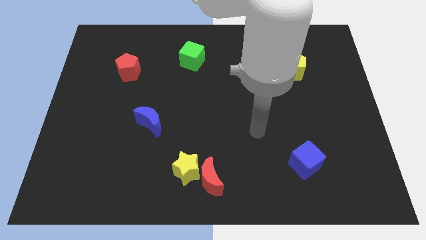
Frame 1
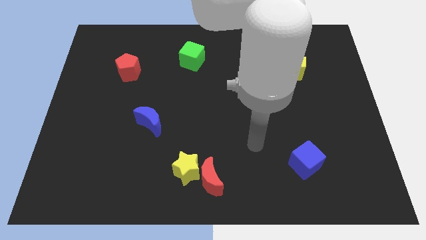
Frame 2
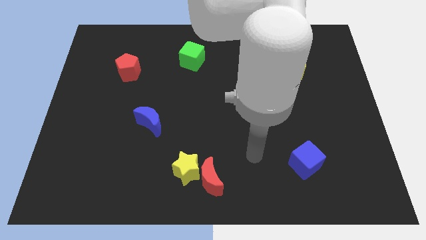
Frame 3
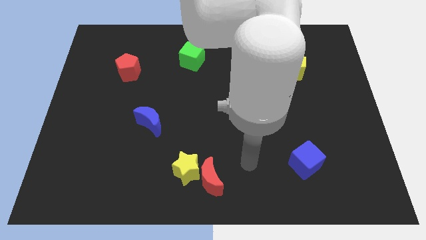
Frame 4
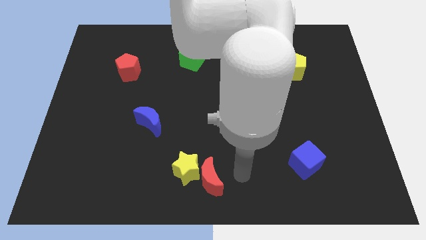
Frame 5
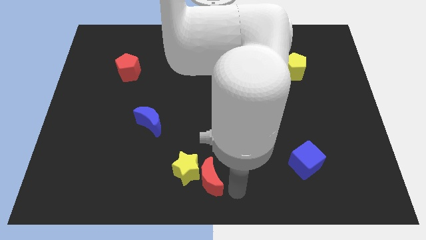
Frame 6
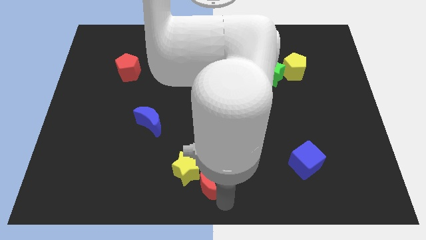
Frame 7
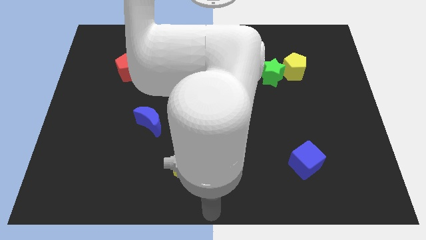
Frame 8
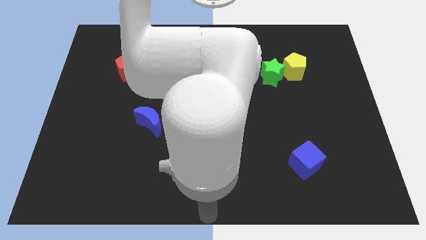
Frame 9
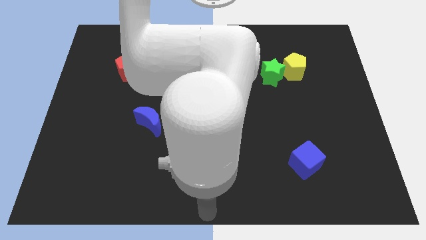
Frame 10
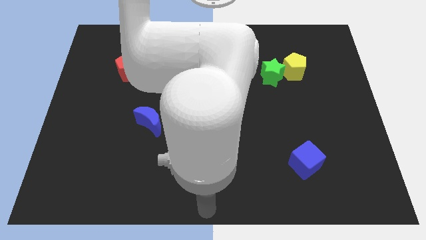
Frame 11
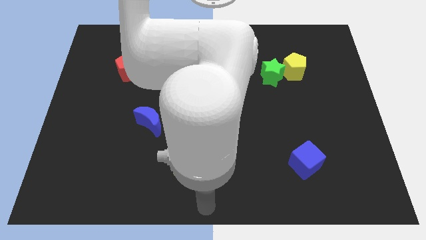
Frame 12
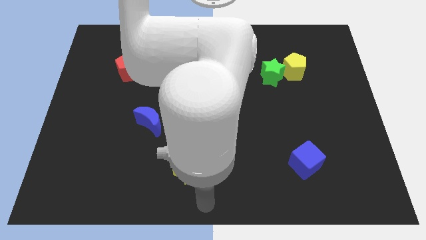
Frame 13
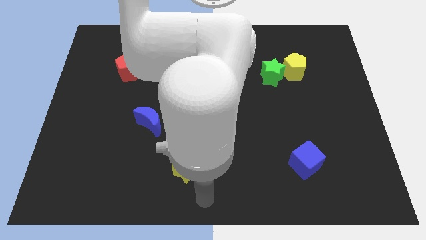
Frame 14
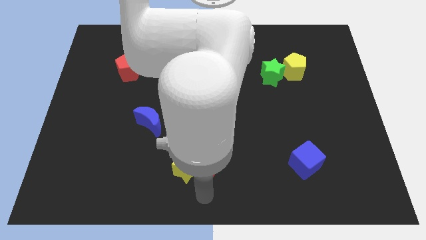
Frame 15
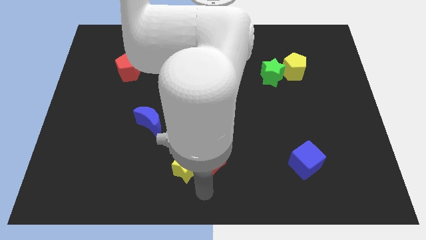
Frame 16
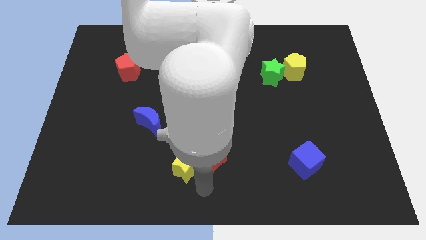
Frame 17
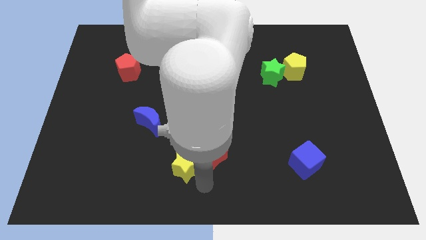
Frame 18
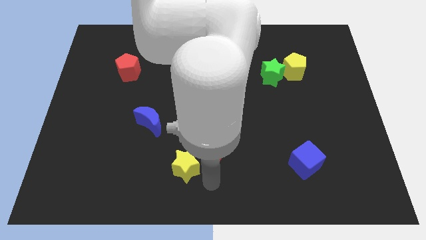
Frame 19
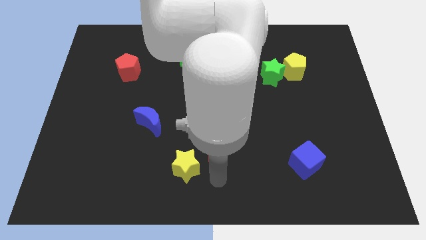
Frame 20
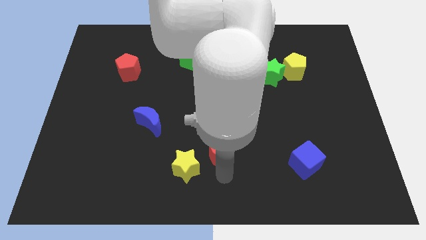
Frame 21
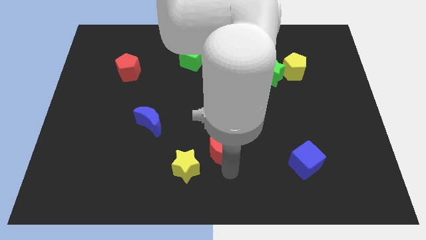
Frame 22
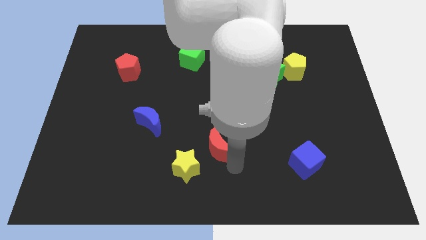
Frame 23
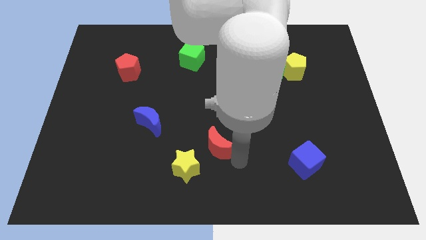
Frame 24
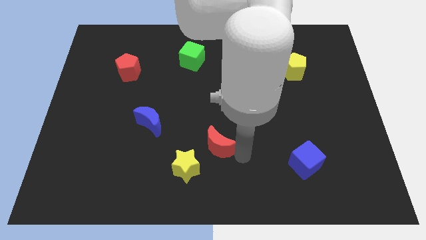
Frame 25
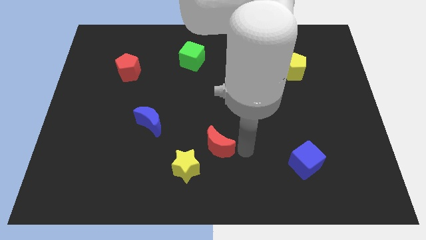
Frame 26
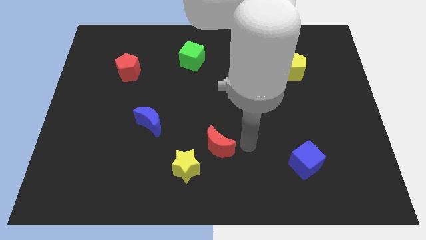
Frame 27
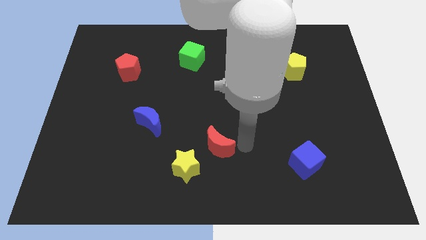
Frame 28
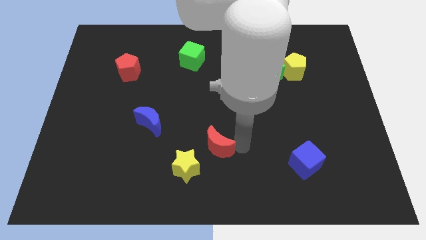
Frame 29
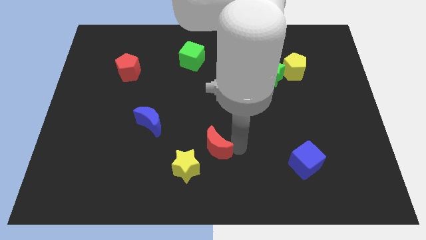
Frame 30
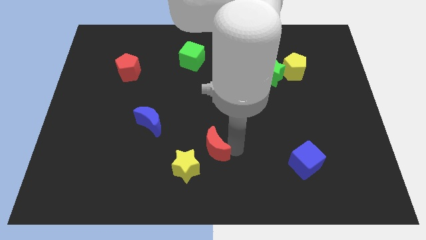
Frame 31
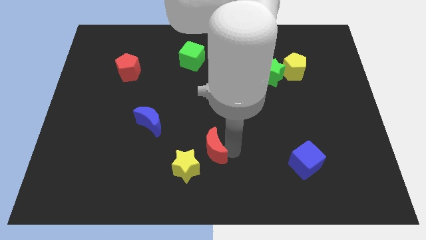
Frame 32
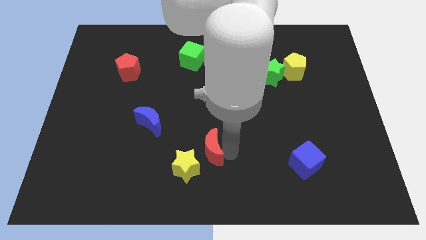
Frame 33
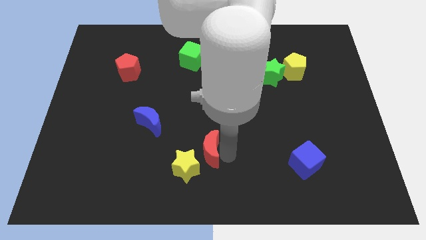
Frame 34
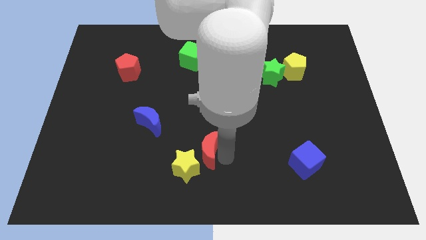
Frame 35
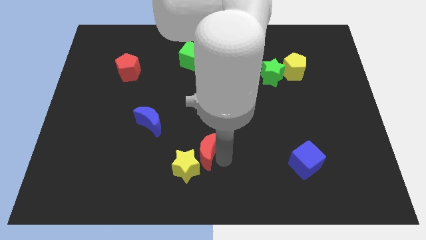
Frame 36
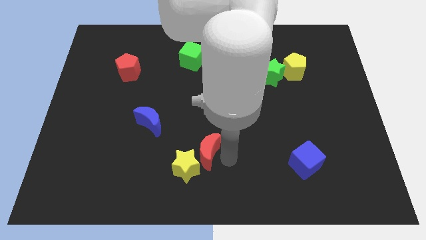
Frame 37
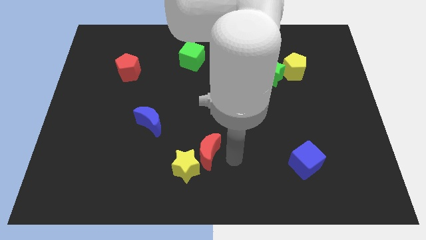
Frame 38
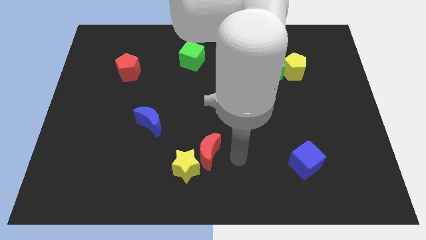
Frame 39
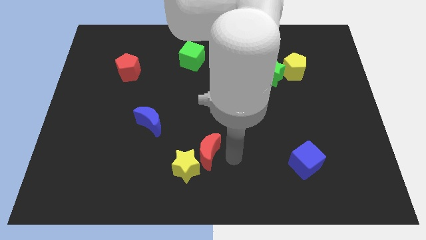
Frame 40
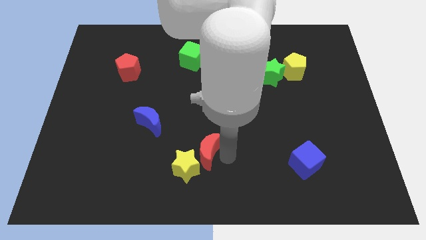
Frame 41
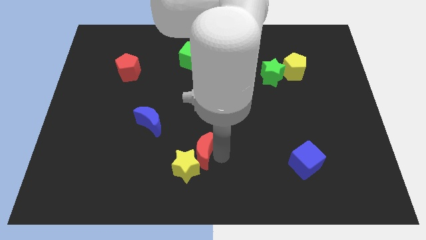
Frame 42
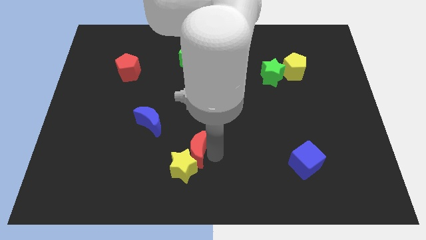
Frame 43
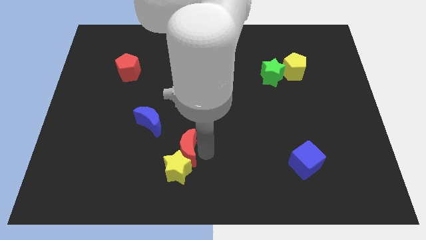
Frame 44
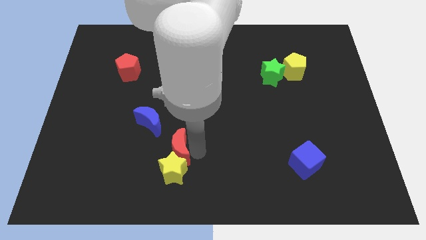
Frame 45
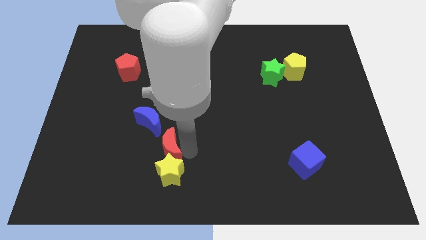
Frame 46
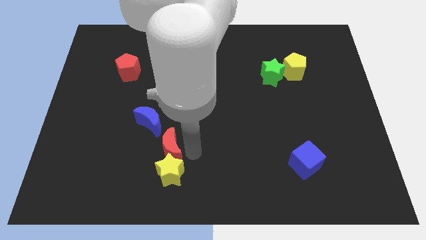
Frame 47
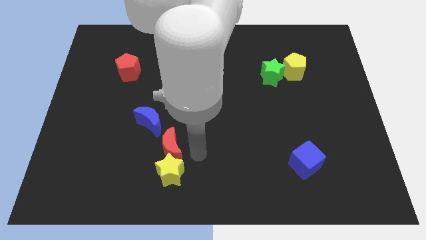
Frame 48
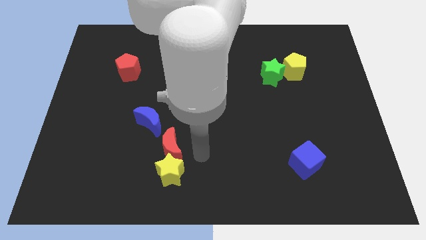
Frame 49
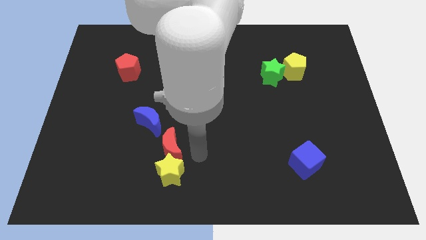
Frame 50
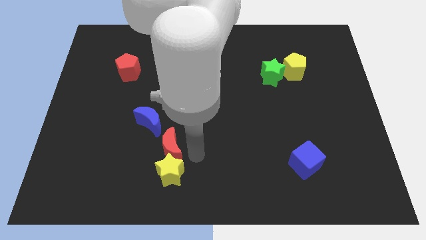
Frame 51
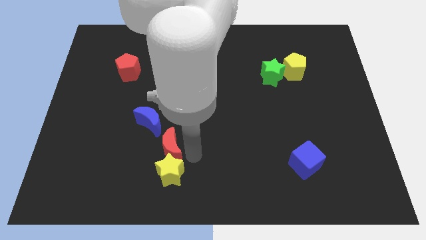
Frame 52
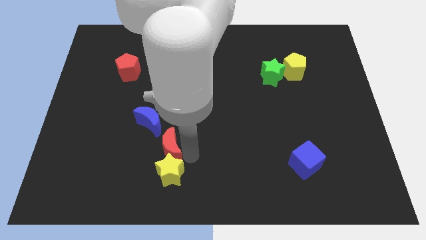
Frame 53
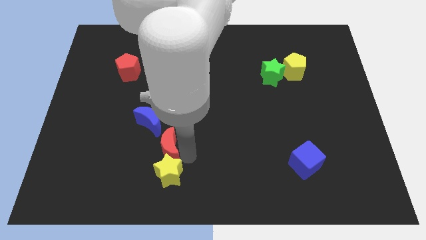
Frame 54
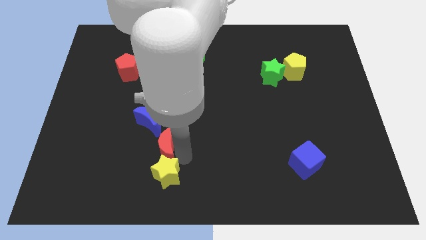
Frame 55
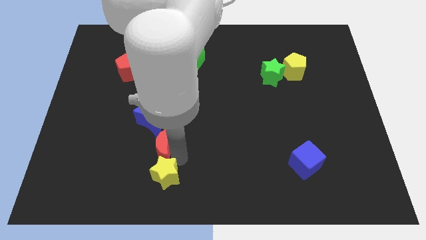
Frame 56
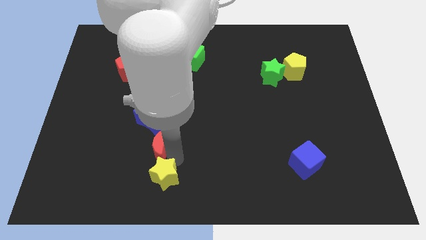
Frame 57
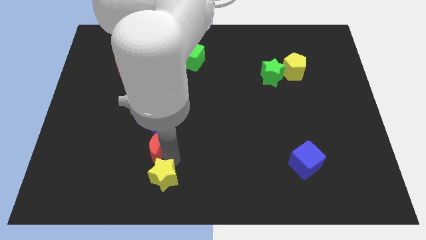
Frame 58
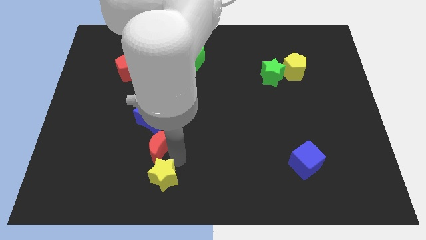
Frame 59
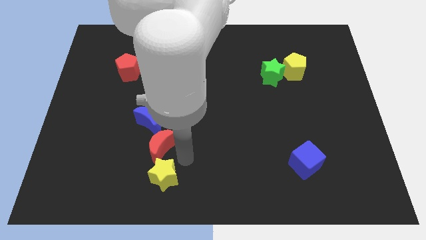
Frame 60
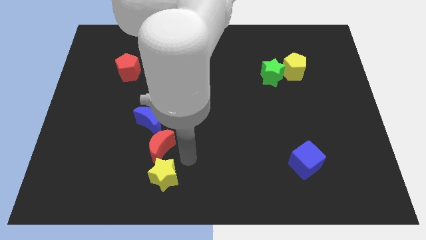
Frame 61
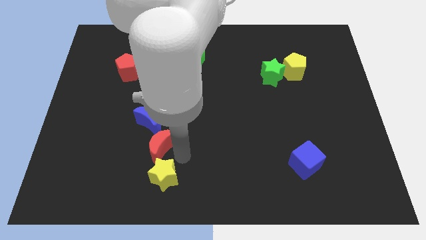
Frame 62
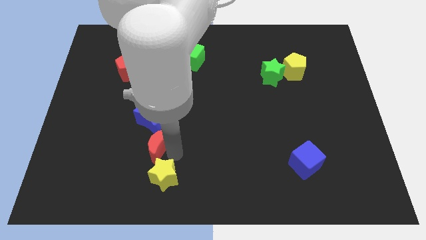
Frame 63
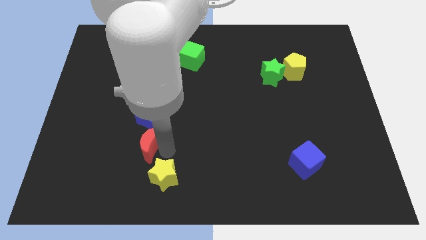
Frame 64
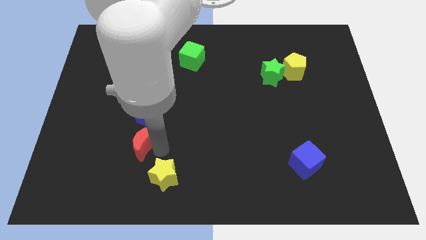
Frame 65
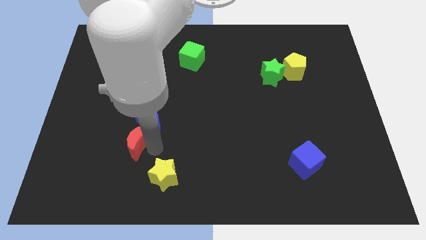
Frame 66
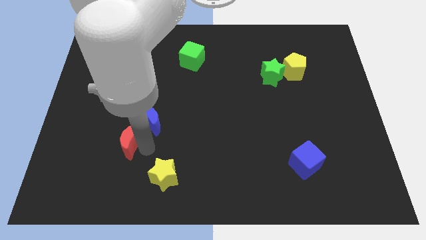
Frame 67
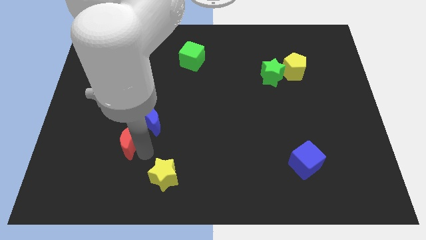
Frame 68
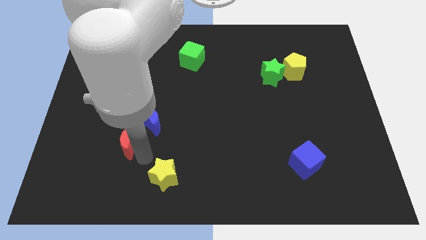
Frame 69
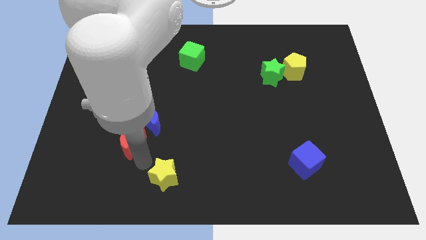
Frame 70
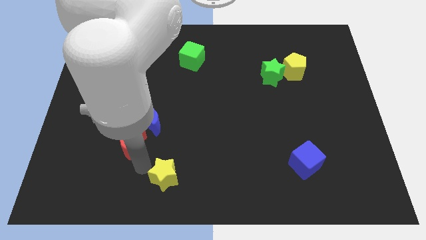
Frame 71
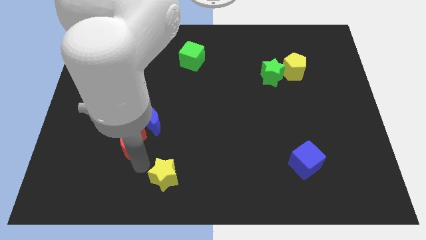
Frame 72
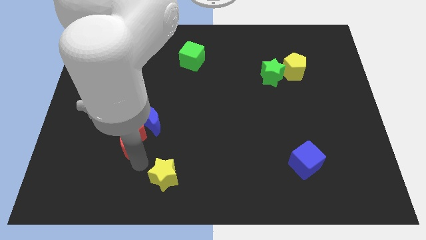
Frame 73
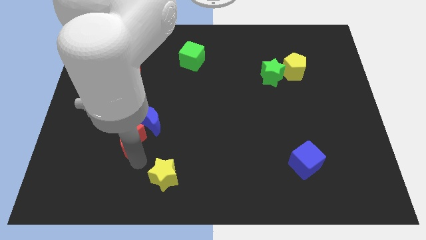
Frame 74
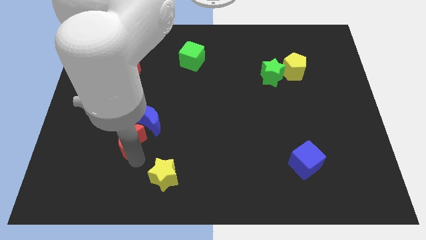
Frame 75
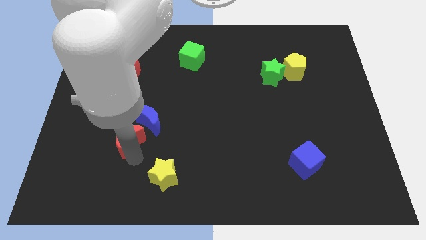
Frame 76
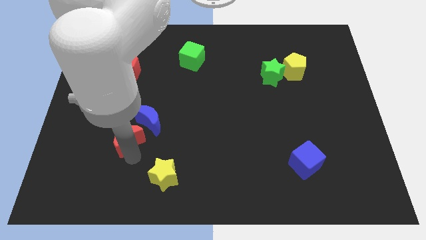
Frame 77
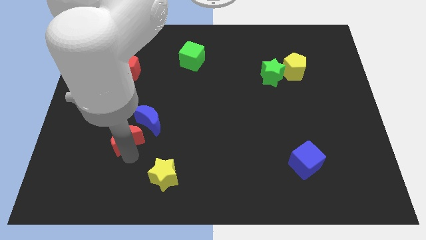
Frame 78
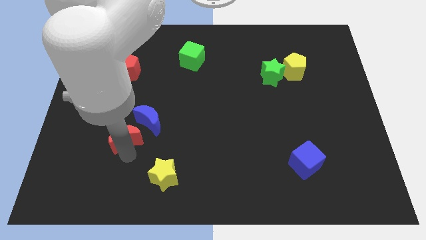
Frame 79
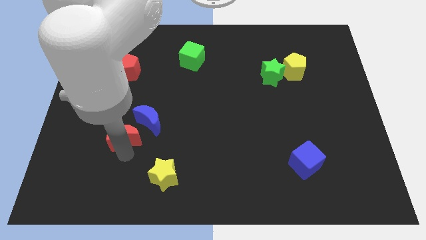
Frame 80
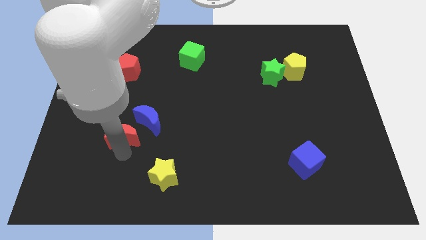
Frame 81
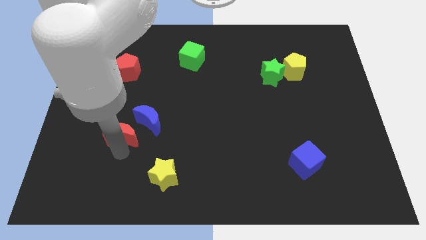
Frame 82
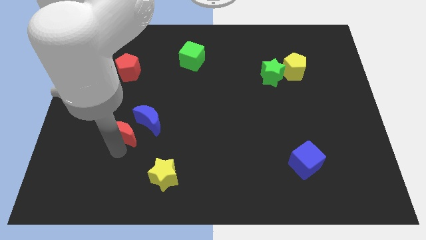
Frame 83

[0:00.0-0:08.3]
move the red moon upwards and then to the left
